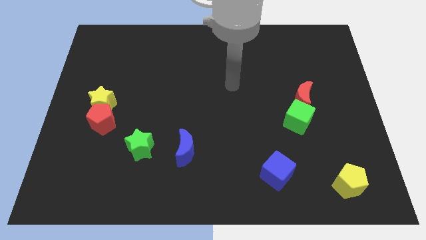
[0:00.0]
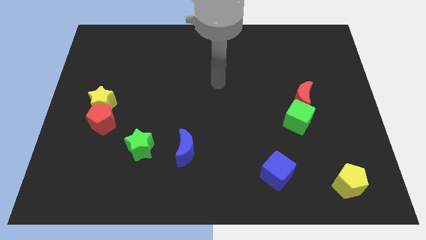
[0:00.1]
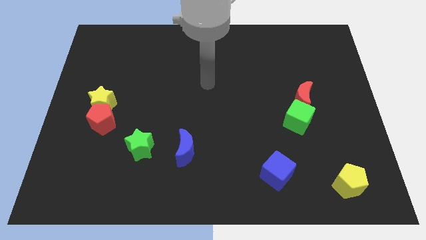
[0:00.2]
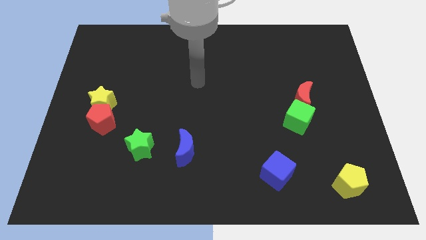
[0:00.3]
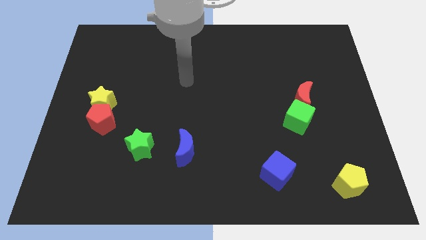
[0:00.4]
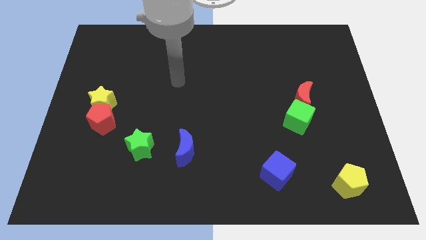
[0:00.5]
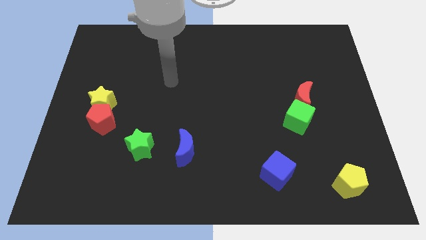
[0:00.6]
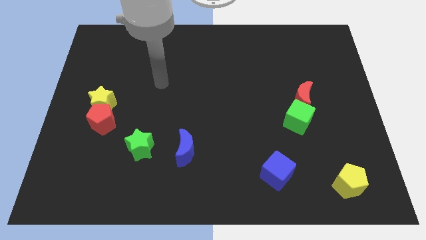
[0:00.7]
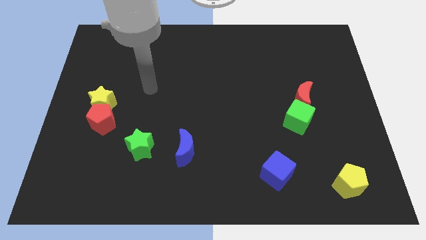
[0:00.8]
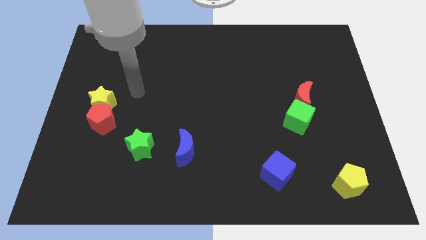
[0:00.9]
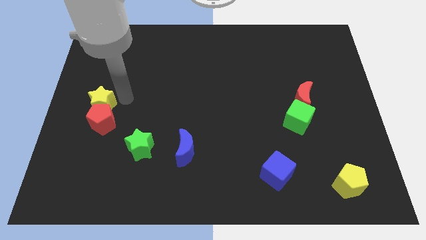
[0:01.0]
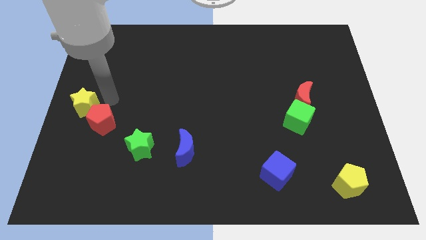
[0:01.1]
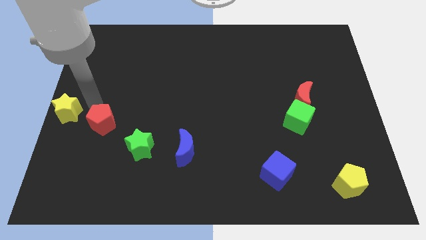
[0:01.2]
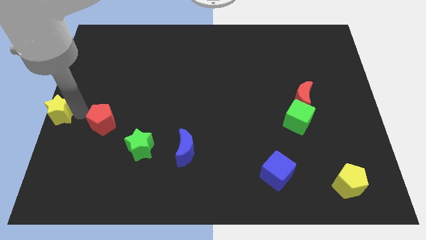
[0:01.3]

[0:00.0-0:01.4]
move the red pentagon away from the yellow star

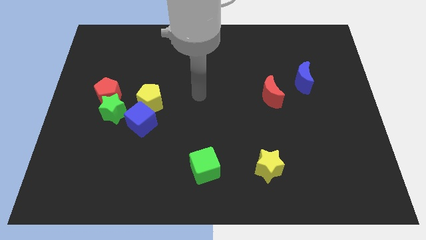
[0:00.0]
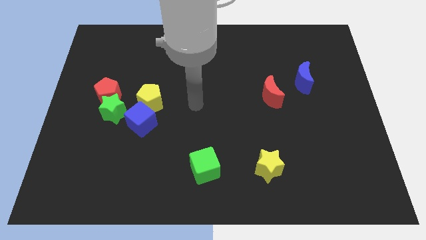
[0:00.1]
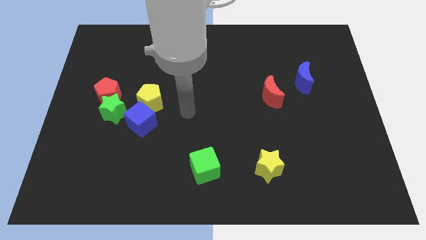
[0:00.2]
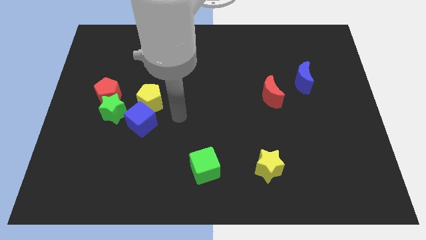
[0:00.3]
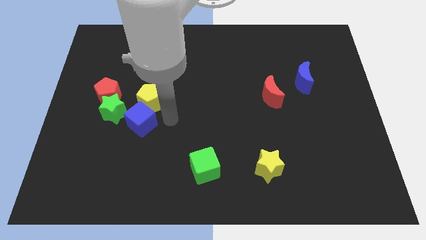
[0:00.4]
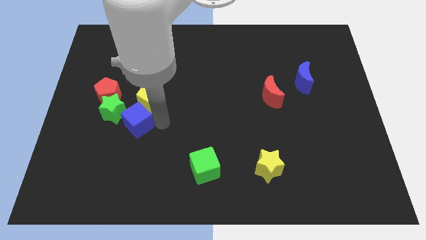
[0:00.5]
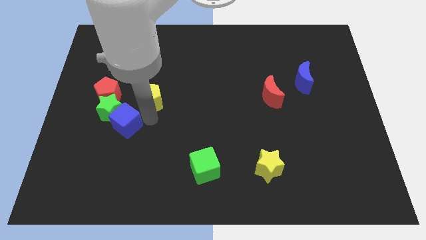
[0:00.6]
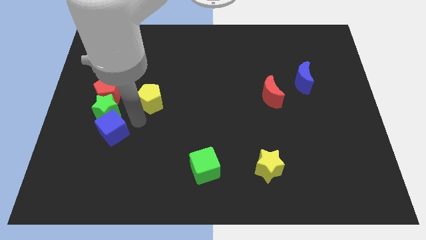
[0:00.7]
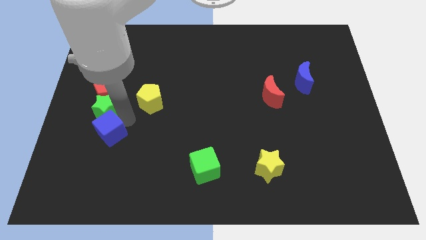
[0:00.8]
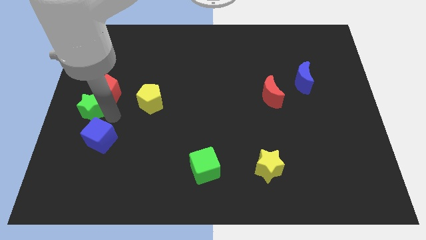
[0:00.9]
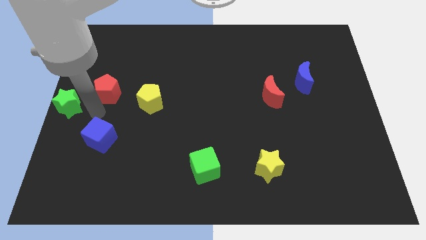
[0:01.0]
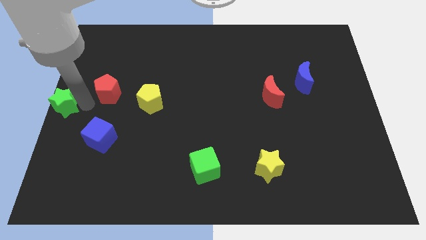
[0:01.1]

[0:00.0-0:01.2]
move the red pentagon away from the green star

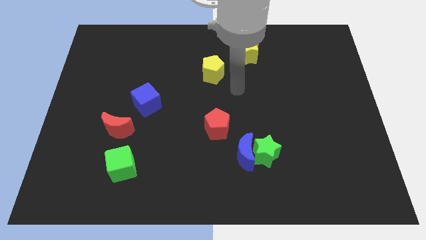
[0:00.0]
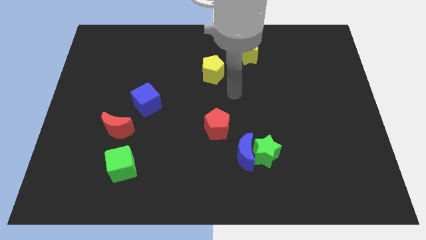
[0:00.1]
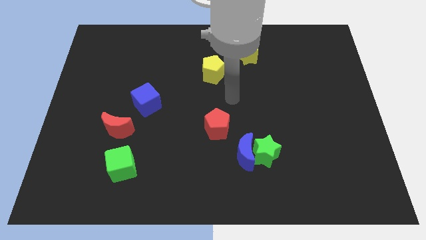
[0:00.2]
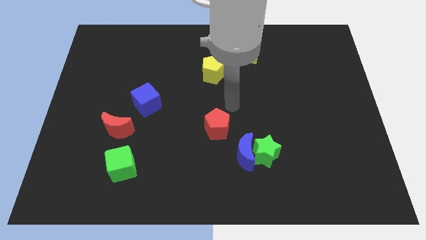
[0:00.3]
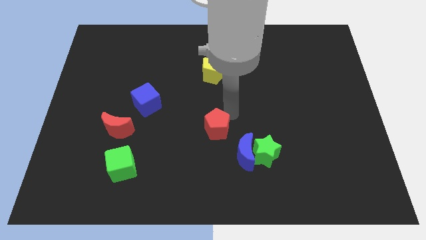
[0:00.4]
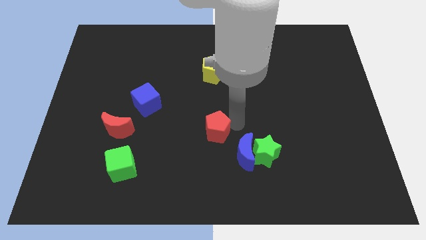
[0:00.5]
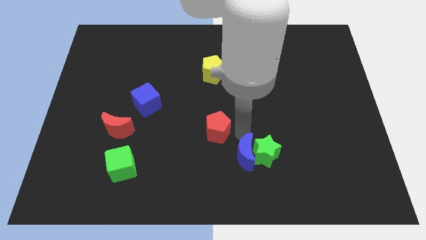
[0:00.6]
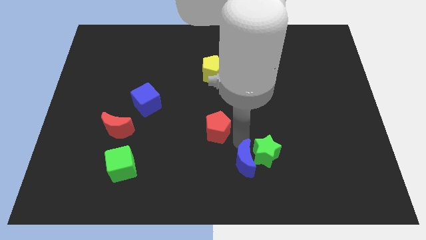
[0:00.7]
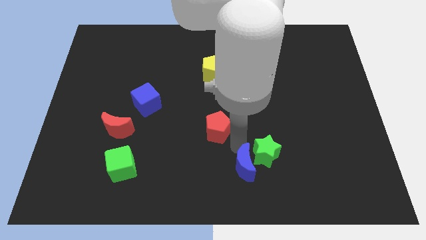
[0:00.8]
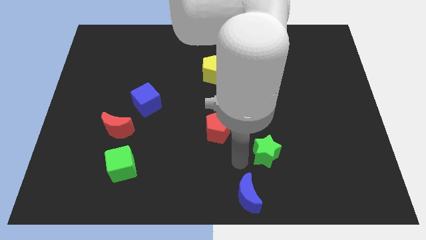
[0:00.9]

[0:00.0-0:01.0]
pull the green star apart from the blue moon

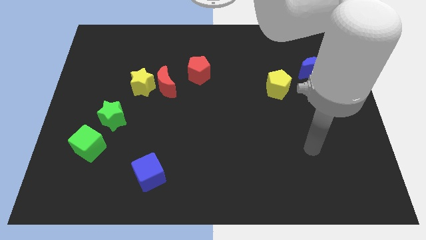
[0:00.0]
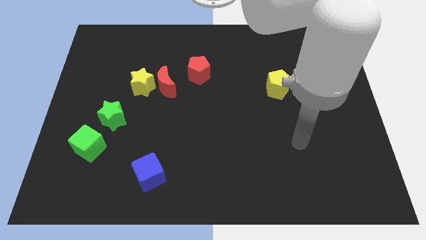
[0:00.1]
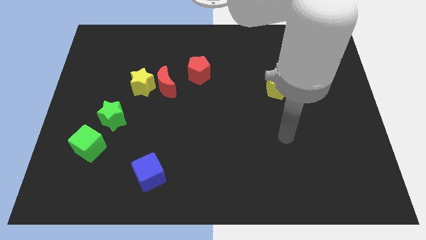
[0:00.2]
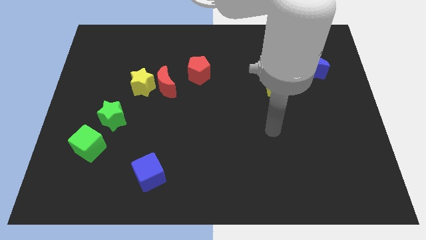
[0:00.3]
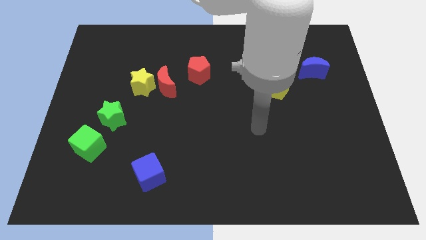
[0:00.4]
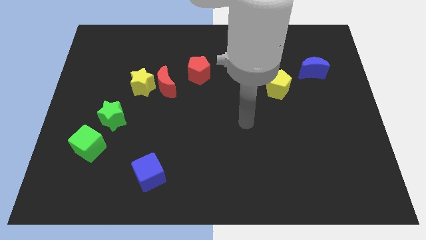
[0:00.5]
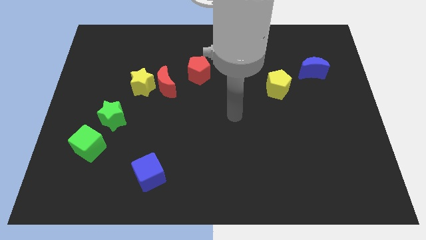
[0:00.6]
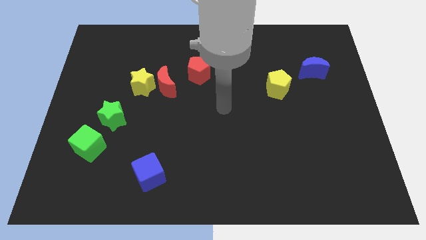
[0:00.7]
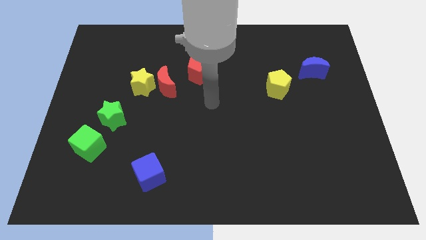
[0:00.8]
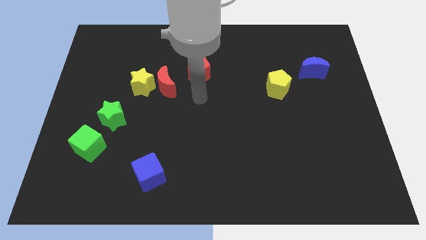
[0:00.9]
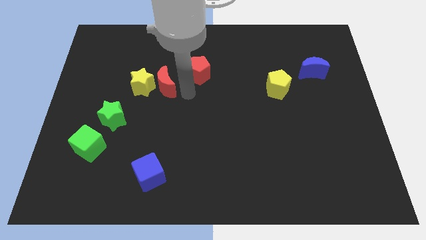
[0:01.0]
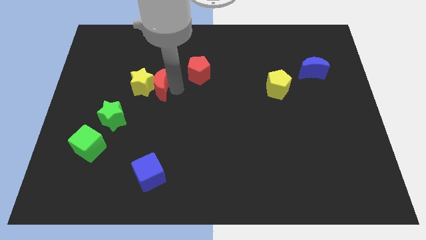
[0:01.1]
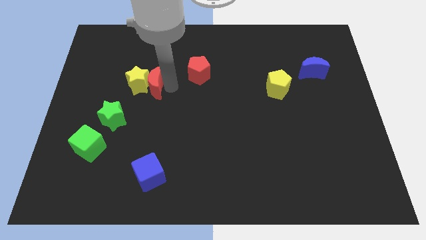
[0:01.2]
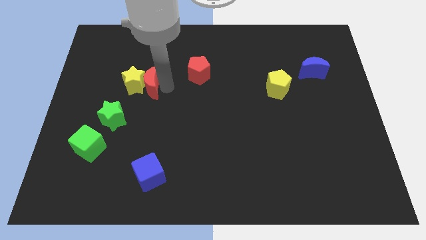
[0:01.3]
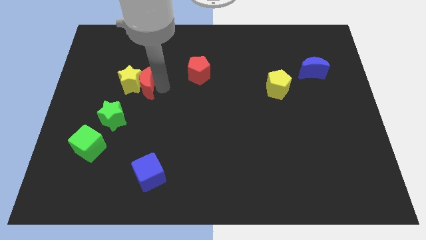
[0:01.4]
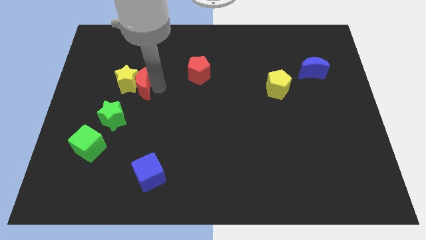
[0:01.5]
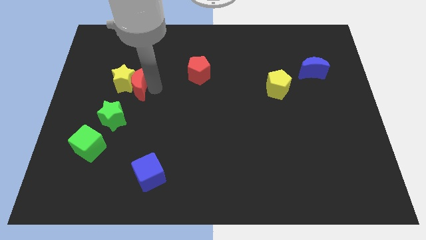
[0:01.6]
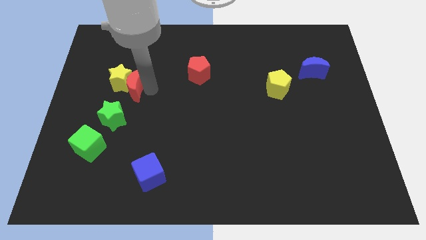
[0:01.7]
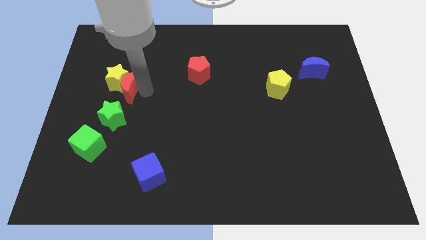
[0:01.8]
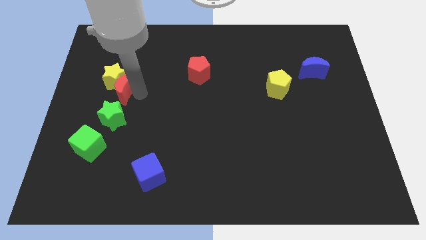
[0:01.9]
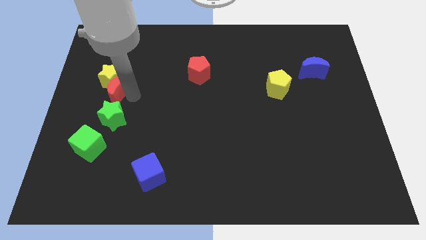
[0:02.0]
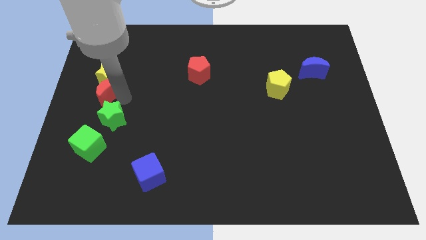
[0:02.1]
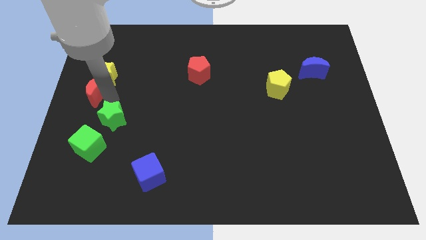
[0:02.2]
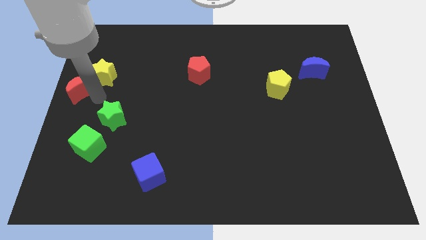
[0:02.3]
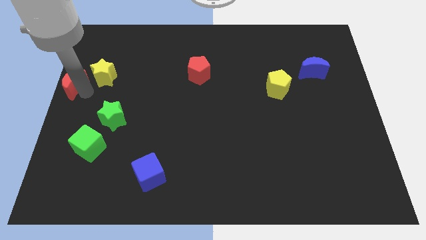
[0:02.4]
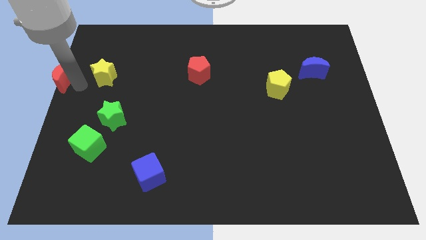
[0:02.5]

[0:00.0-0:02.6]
move the yellow star away from the red moon

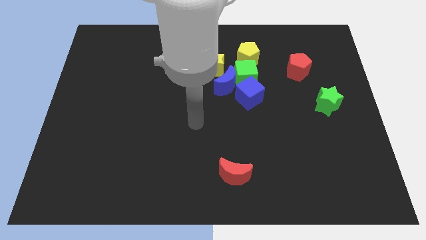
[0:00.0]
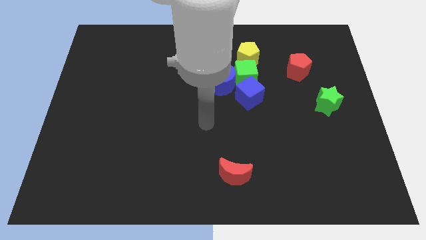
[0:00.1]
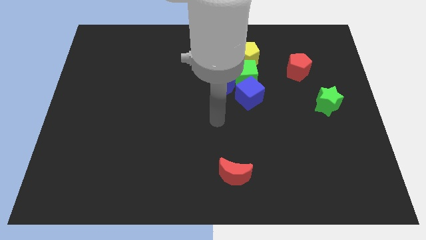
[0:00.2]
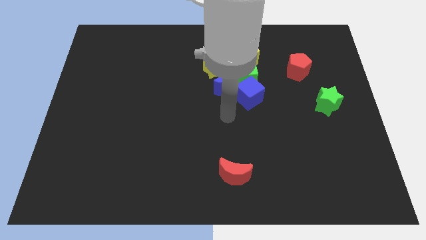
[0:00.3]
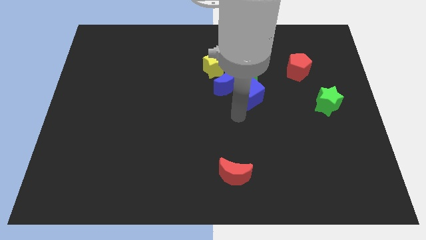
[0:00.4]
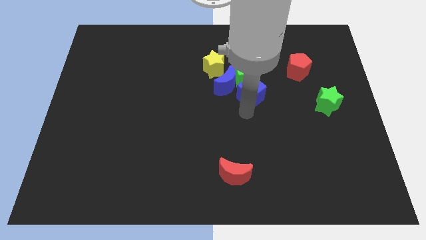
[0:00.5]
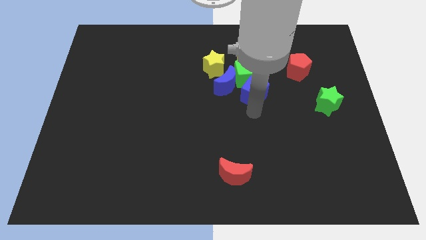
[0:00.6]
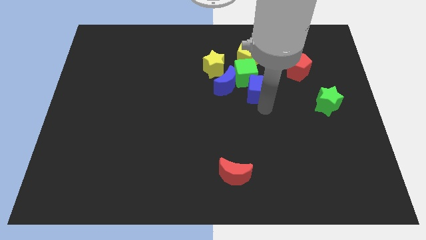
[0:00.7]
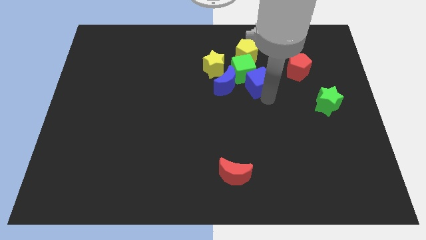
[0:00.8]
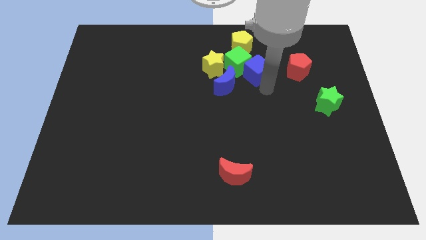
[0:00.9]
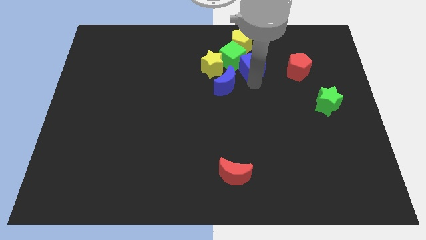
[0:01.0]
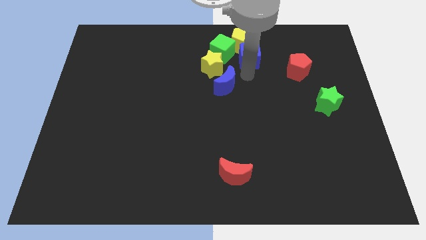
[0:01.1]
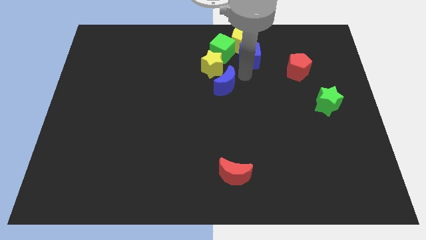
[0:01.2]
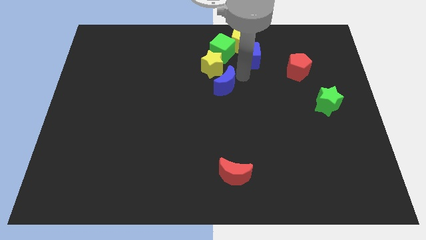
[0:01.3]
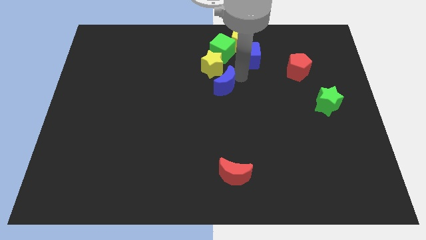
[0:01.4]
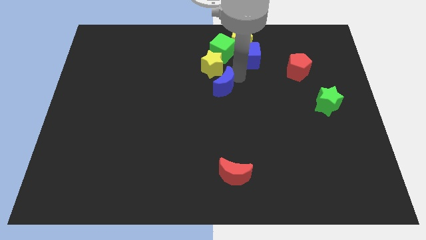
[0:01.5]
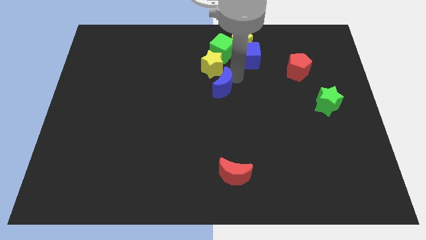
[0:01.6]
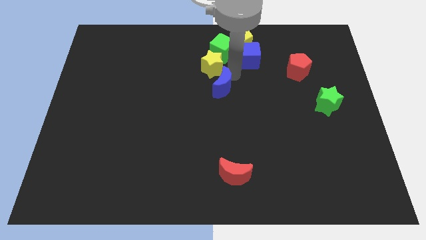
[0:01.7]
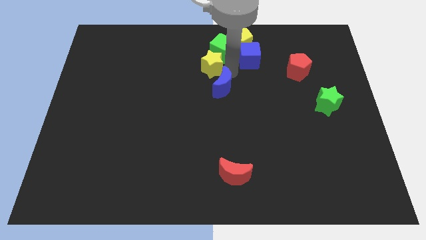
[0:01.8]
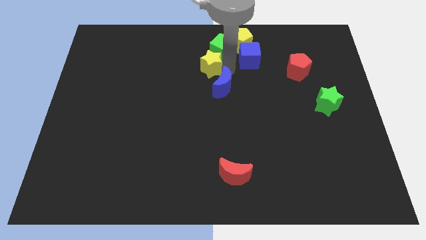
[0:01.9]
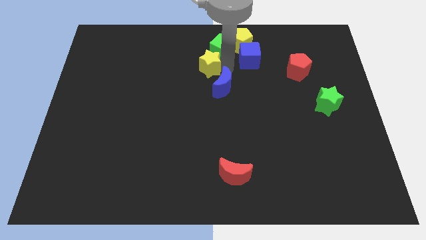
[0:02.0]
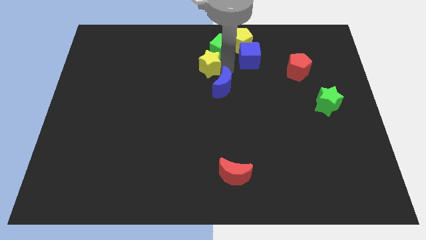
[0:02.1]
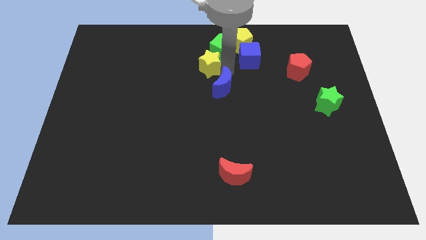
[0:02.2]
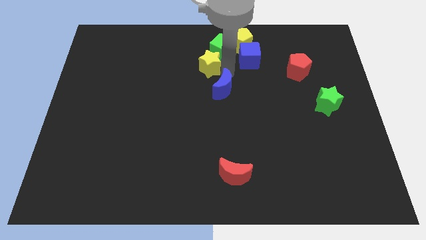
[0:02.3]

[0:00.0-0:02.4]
move the blue moon away from the green cube, blue cube, and yellow star

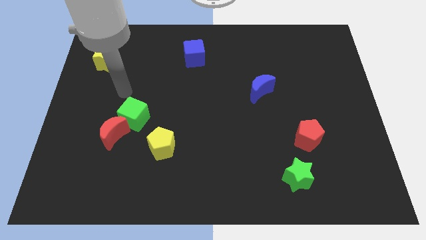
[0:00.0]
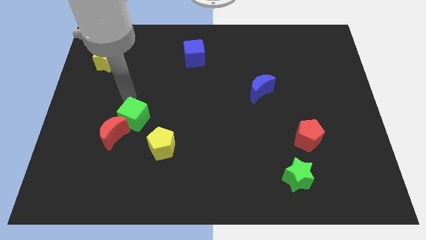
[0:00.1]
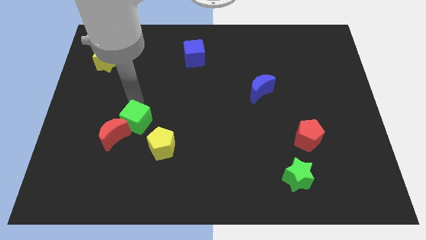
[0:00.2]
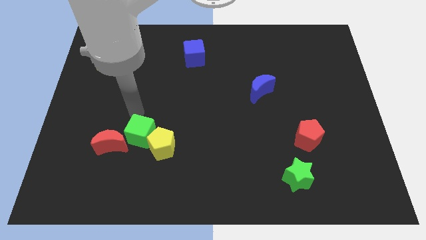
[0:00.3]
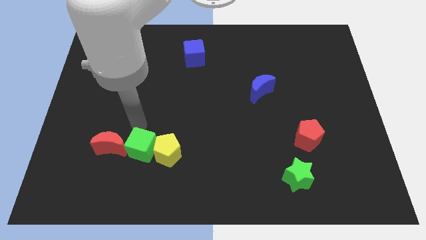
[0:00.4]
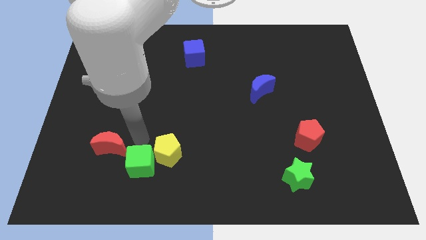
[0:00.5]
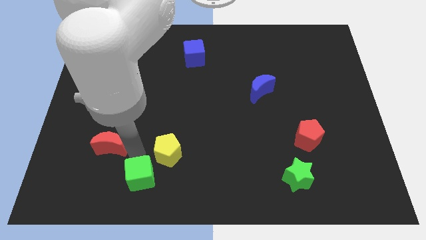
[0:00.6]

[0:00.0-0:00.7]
pull the red moon apart from the green cube
